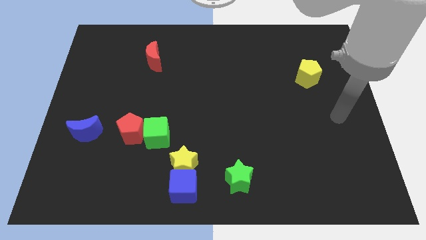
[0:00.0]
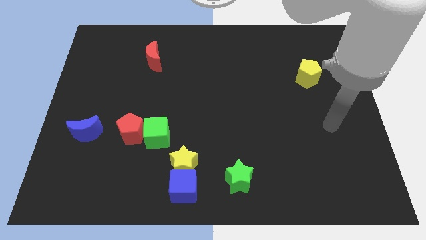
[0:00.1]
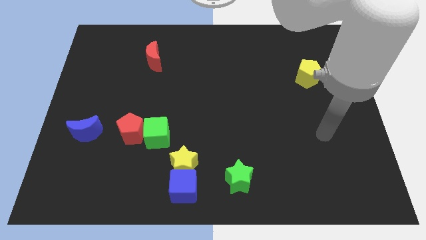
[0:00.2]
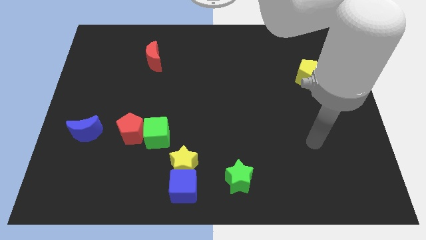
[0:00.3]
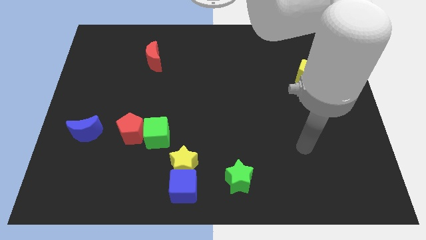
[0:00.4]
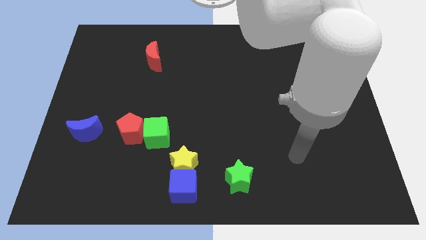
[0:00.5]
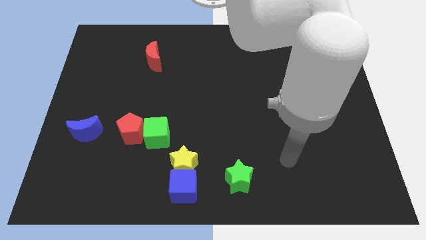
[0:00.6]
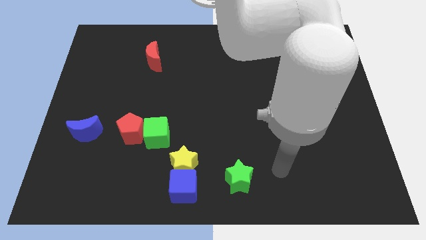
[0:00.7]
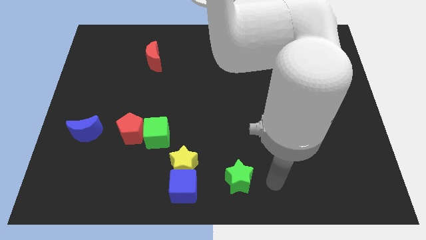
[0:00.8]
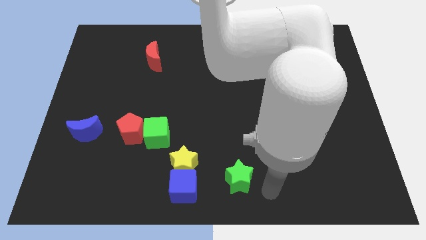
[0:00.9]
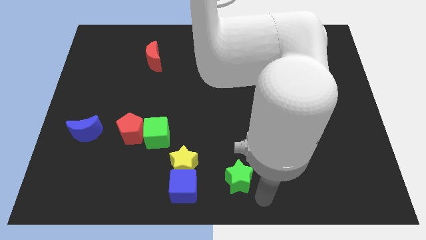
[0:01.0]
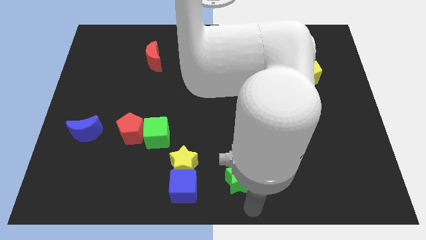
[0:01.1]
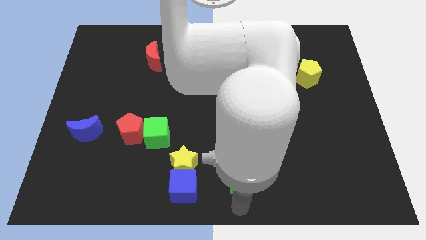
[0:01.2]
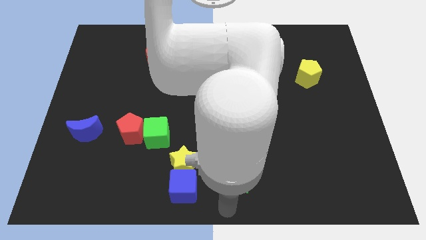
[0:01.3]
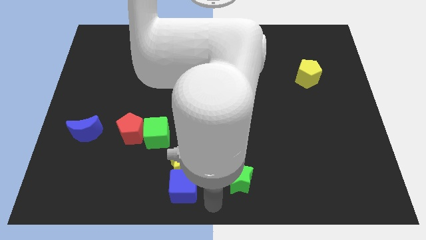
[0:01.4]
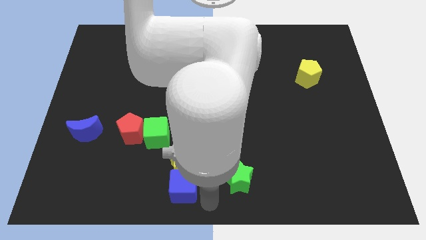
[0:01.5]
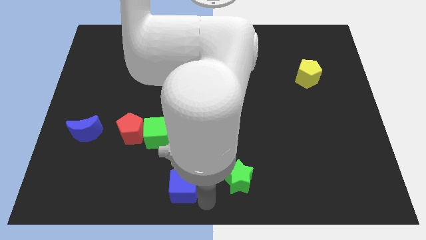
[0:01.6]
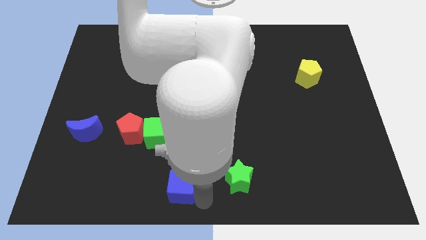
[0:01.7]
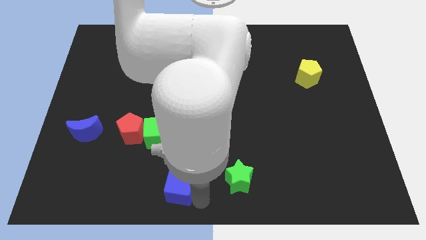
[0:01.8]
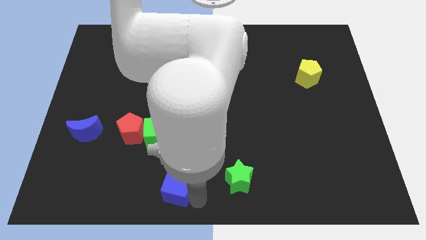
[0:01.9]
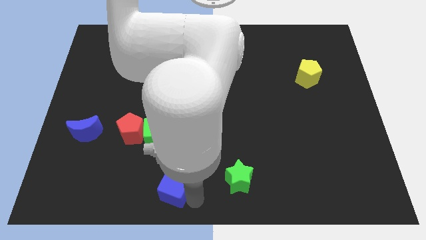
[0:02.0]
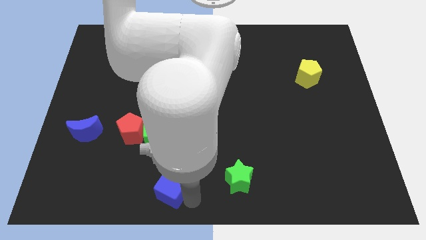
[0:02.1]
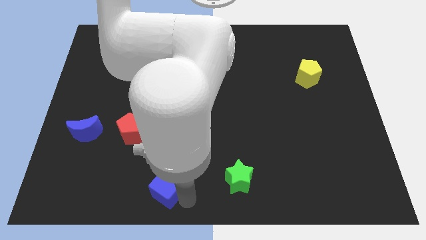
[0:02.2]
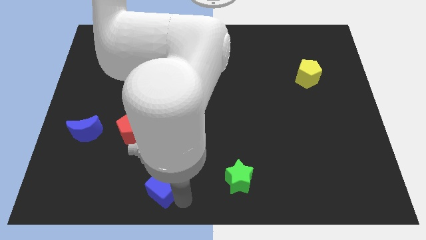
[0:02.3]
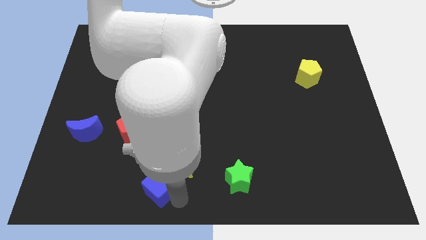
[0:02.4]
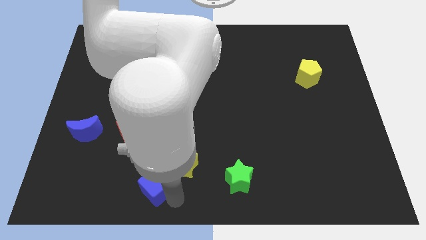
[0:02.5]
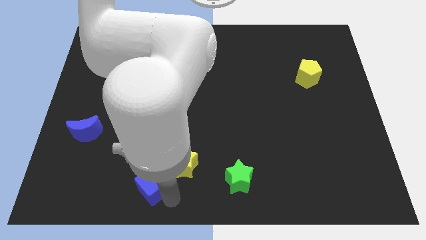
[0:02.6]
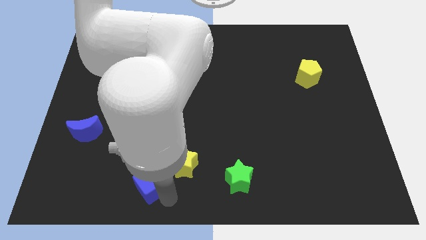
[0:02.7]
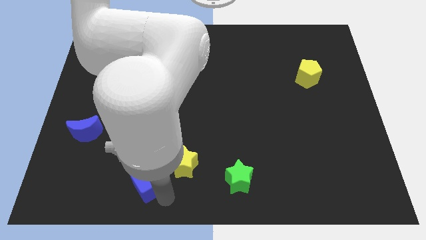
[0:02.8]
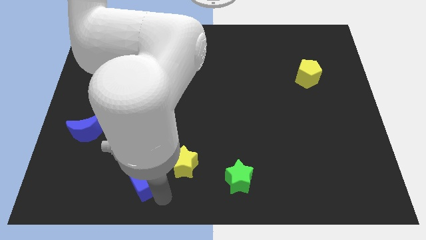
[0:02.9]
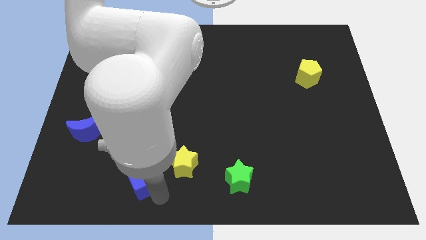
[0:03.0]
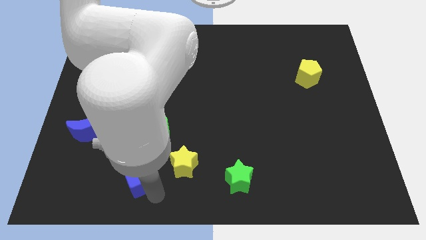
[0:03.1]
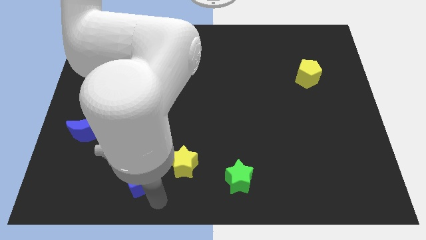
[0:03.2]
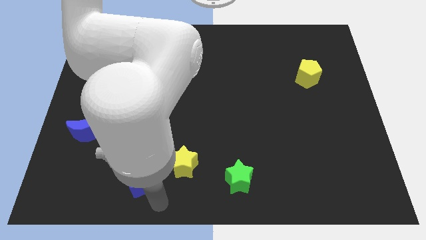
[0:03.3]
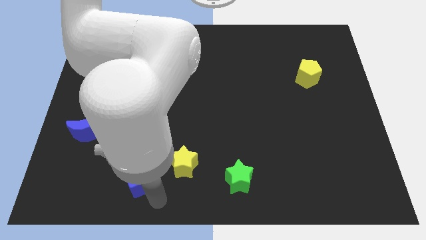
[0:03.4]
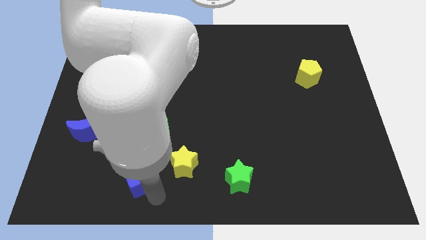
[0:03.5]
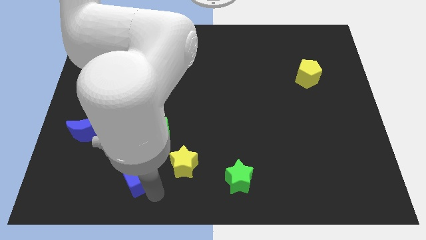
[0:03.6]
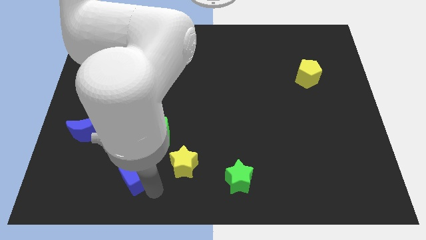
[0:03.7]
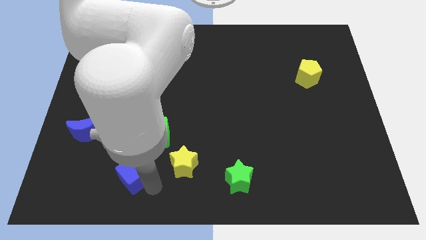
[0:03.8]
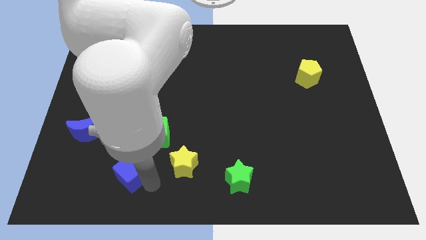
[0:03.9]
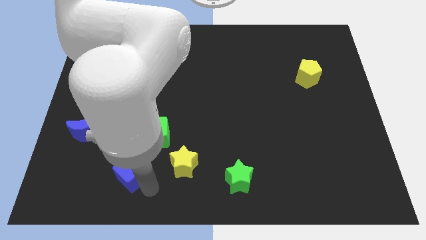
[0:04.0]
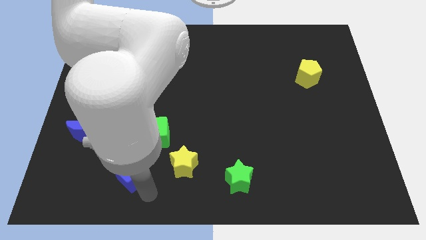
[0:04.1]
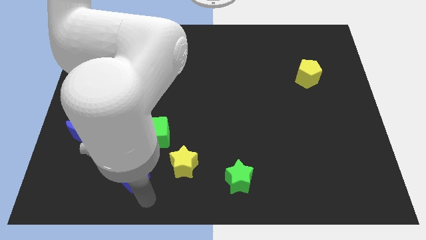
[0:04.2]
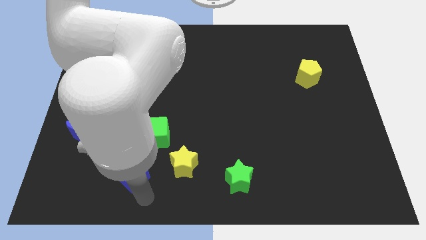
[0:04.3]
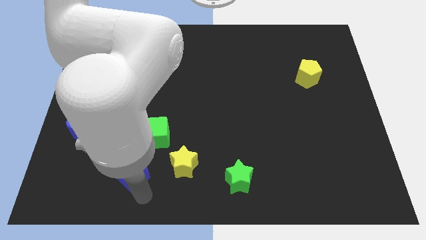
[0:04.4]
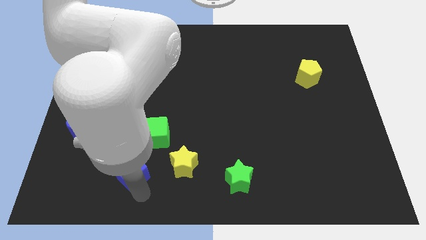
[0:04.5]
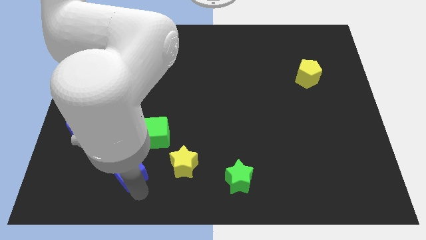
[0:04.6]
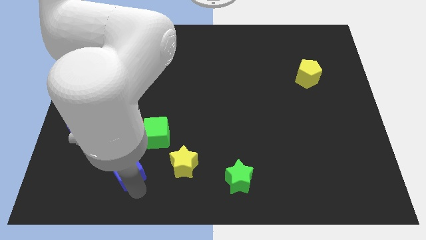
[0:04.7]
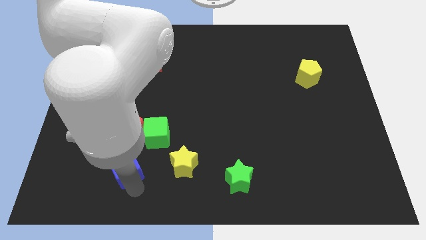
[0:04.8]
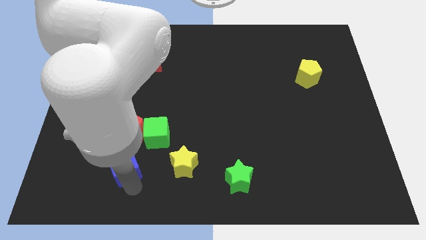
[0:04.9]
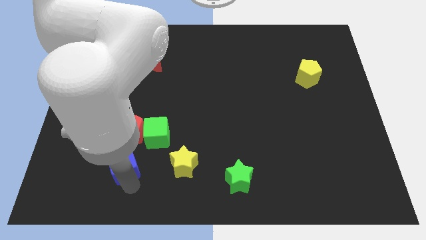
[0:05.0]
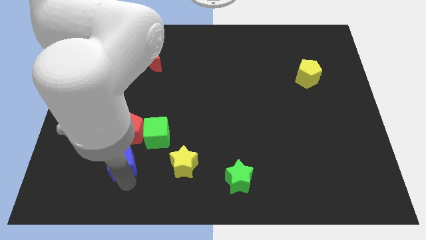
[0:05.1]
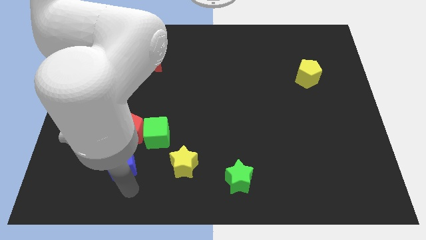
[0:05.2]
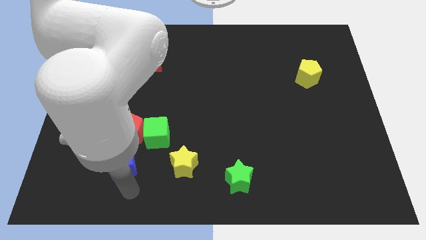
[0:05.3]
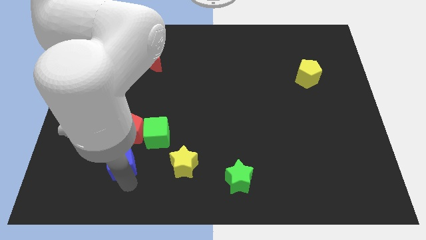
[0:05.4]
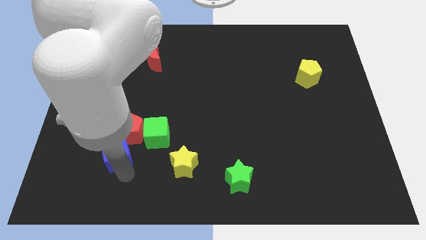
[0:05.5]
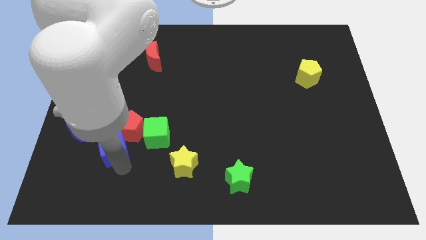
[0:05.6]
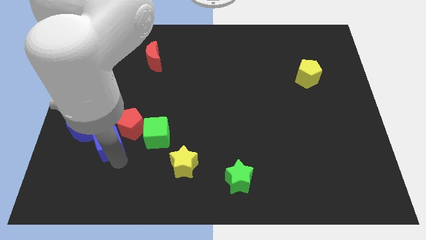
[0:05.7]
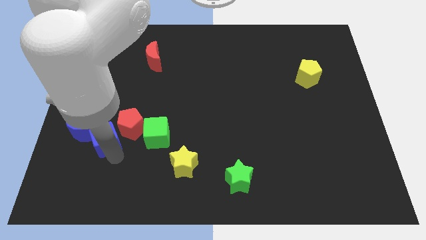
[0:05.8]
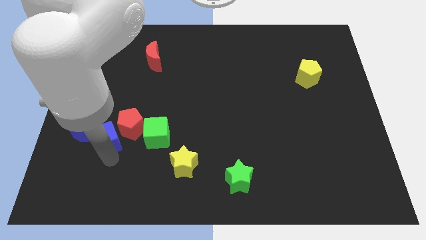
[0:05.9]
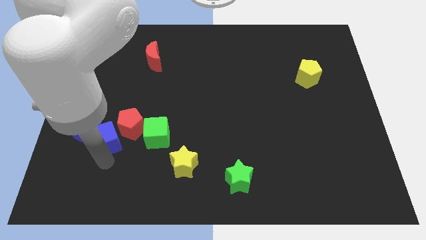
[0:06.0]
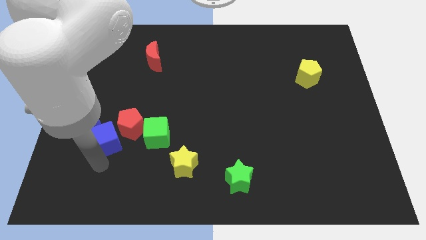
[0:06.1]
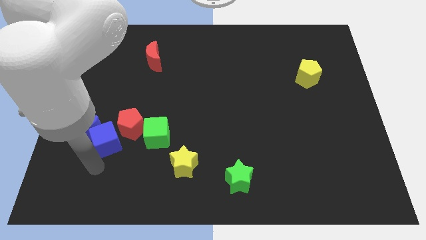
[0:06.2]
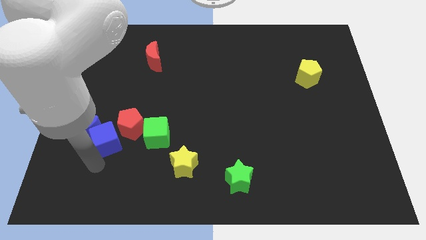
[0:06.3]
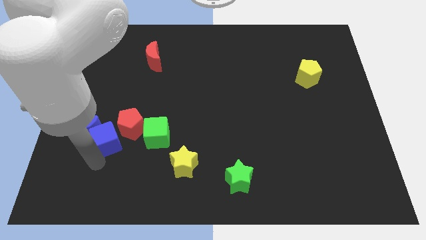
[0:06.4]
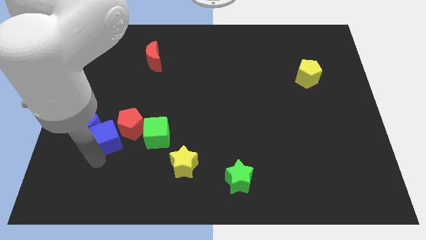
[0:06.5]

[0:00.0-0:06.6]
push the blue cube up and then left

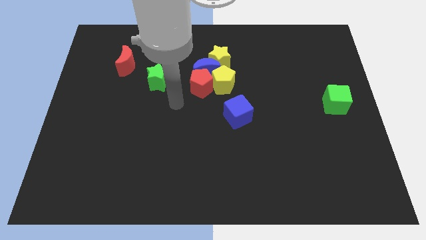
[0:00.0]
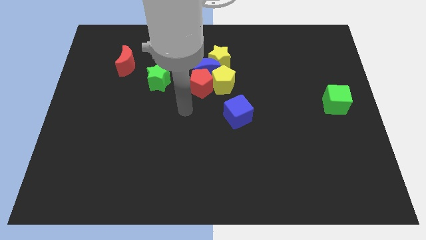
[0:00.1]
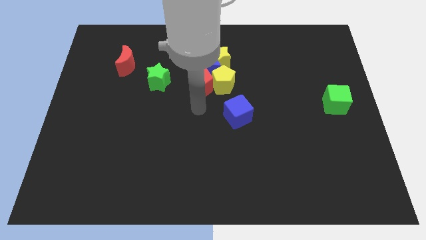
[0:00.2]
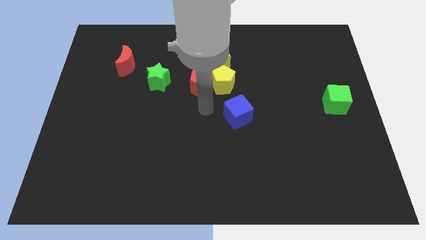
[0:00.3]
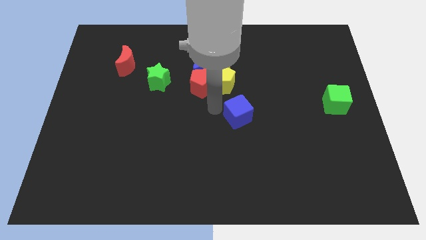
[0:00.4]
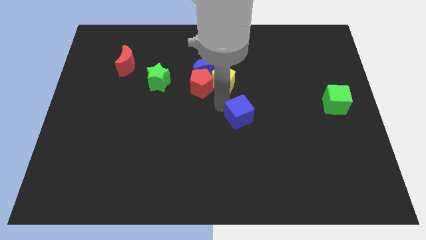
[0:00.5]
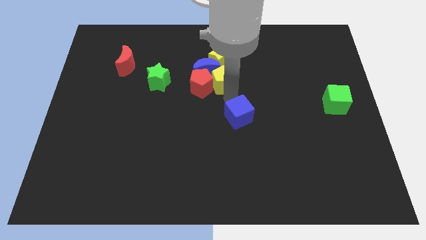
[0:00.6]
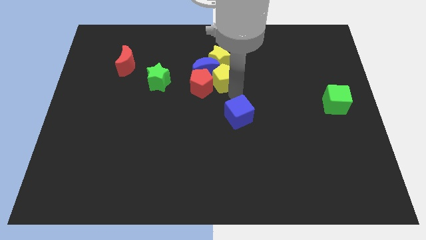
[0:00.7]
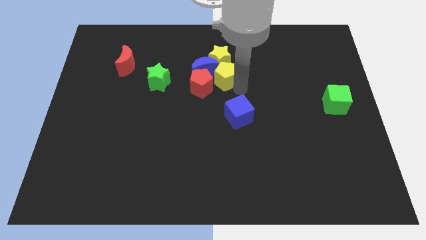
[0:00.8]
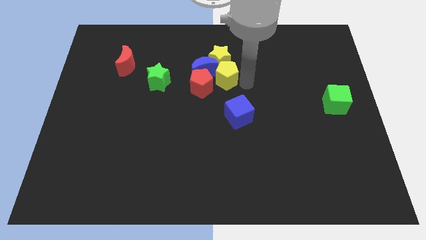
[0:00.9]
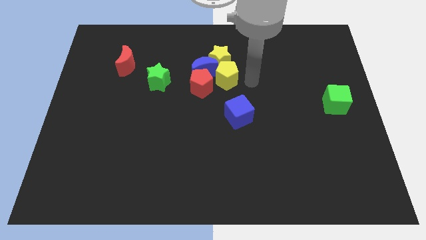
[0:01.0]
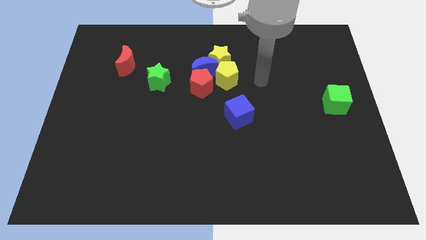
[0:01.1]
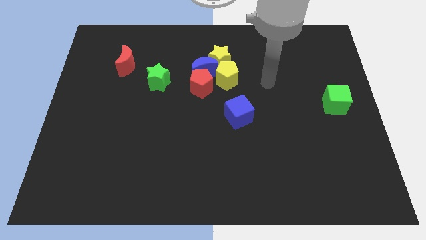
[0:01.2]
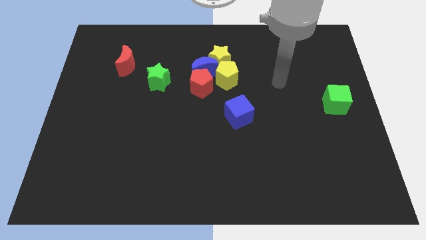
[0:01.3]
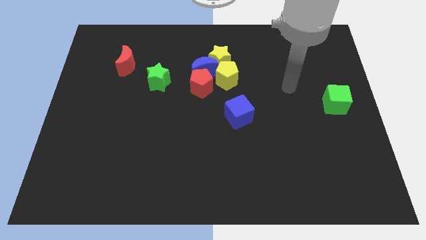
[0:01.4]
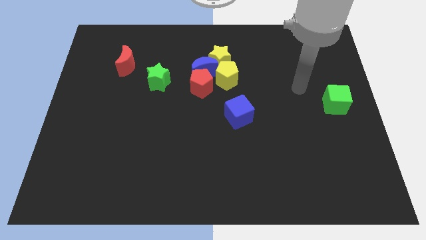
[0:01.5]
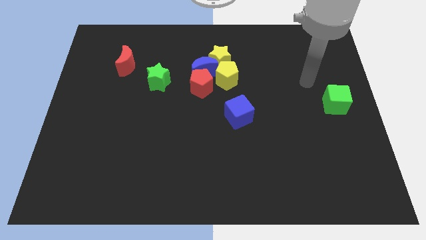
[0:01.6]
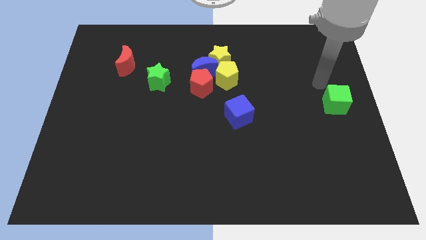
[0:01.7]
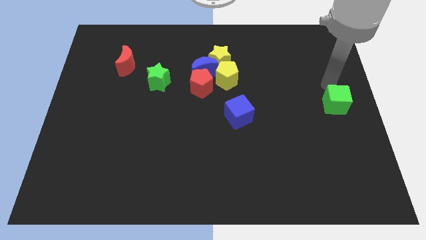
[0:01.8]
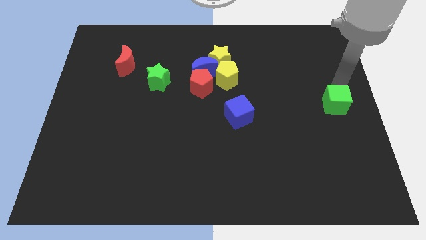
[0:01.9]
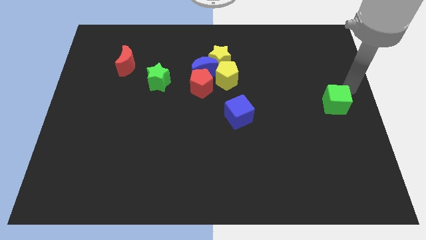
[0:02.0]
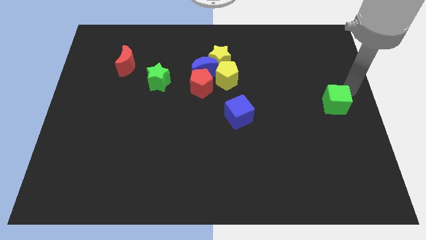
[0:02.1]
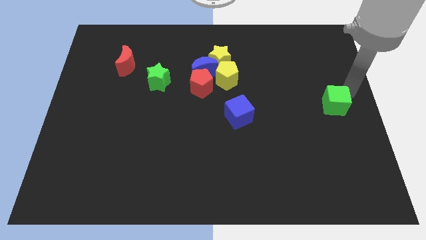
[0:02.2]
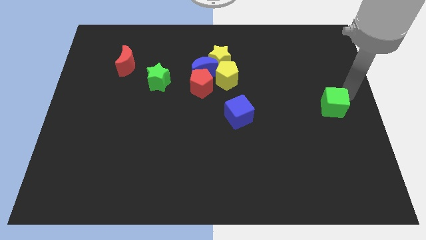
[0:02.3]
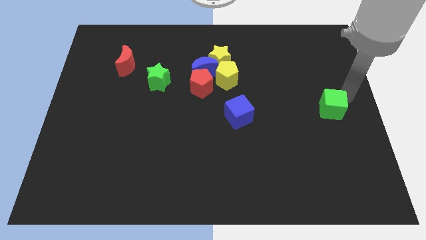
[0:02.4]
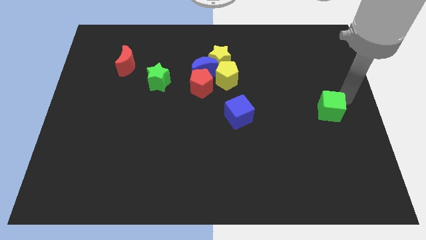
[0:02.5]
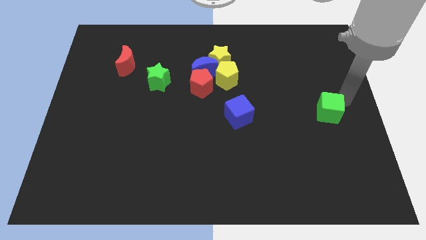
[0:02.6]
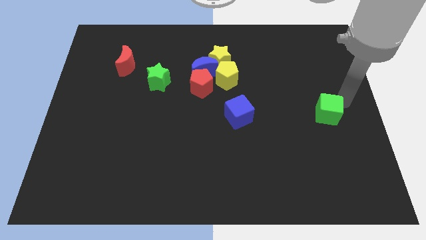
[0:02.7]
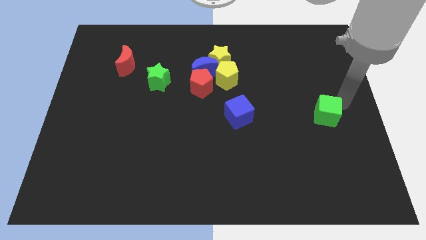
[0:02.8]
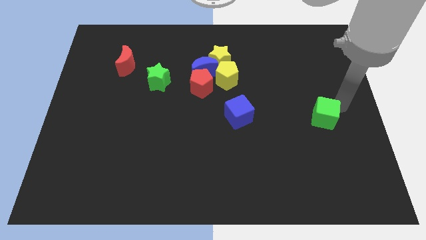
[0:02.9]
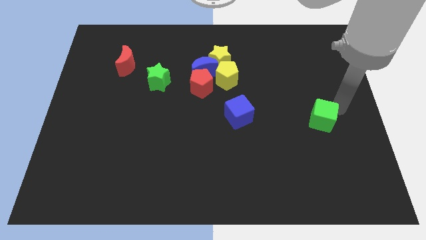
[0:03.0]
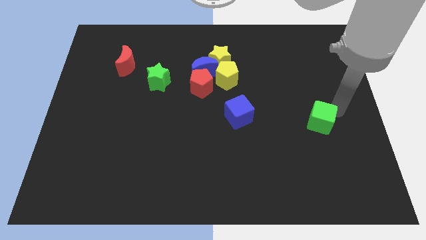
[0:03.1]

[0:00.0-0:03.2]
slightly slide the green cube down and left
